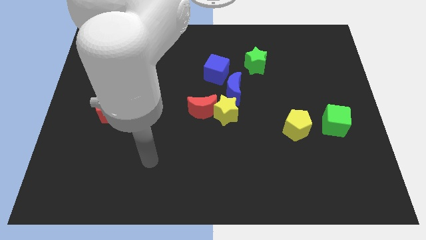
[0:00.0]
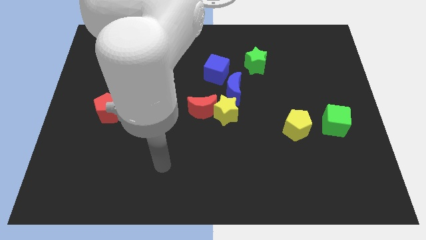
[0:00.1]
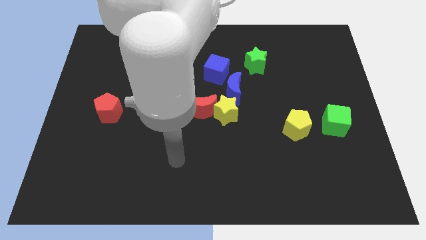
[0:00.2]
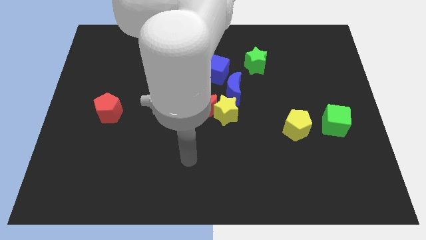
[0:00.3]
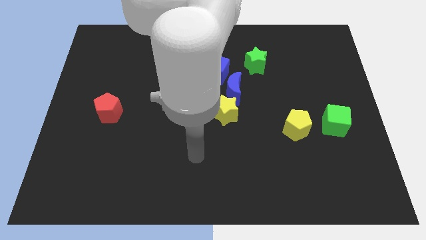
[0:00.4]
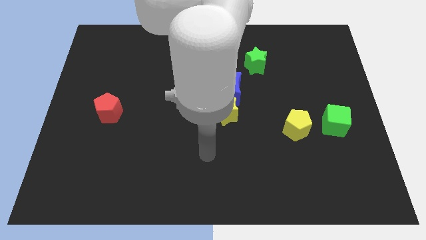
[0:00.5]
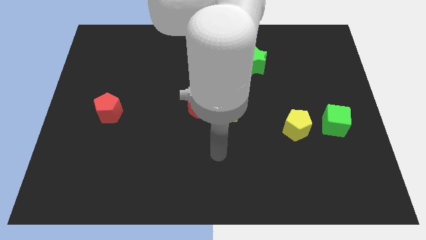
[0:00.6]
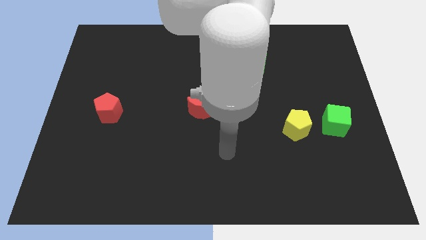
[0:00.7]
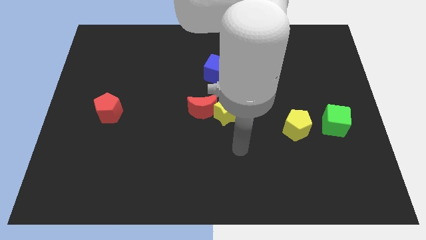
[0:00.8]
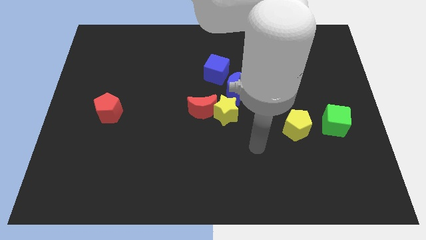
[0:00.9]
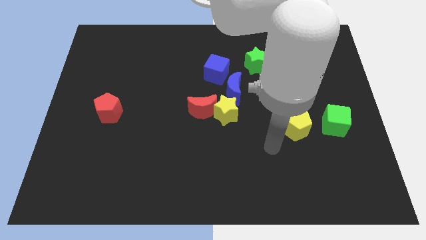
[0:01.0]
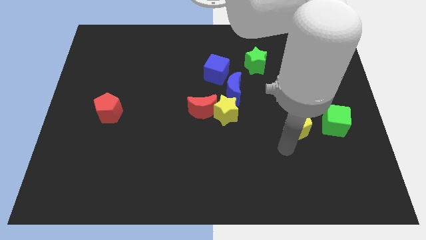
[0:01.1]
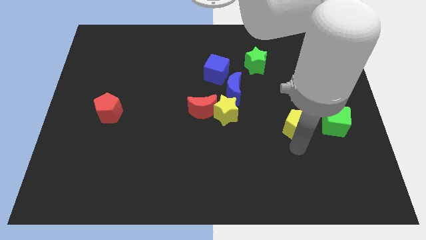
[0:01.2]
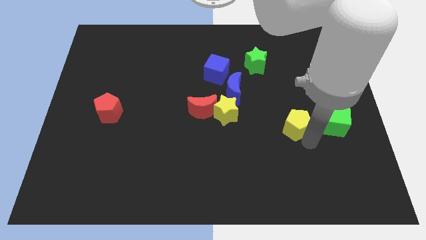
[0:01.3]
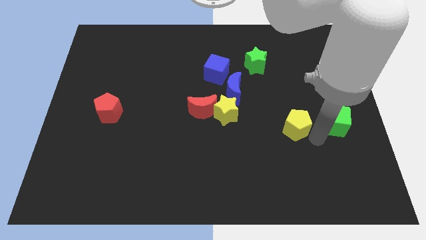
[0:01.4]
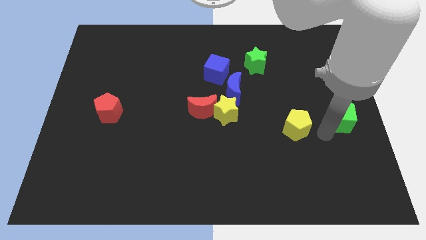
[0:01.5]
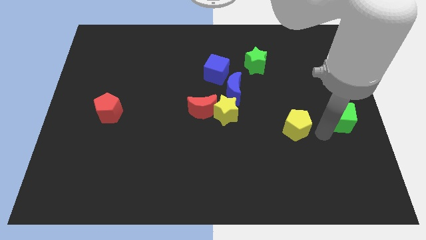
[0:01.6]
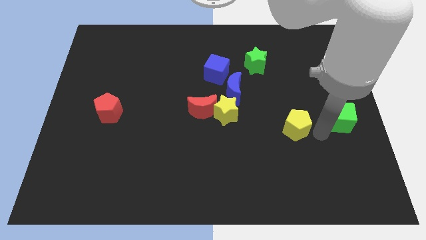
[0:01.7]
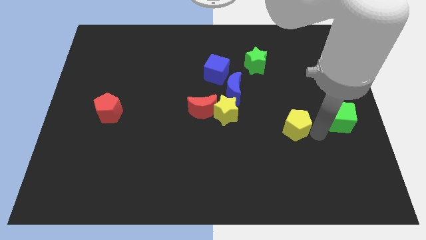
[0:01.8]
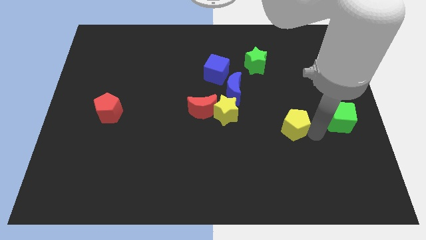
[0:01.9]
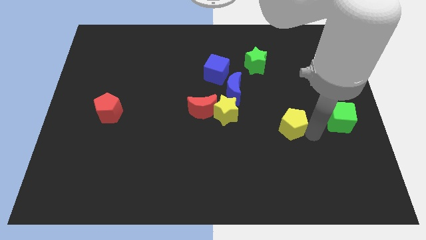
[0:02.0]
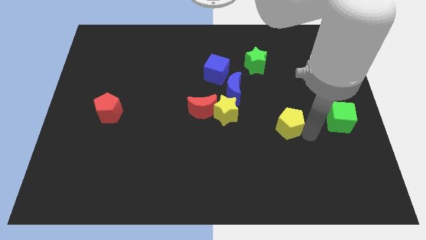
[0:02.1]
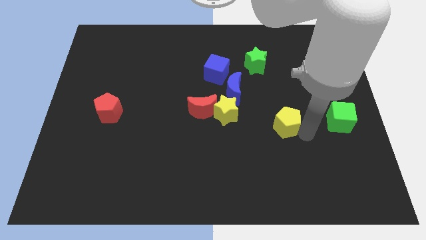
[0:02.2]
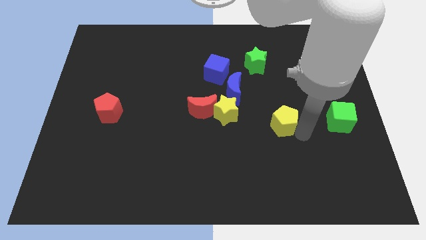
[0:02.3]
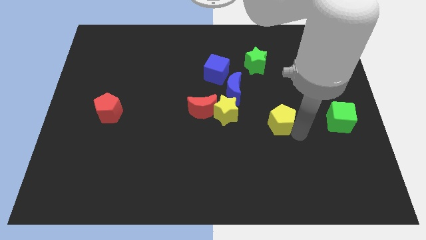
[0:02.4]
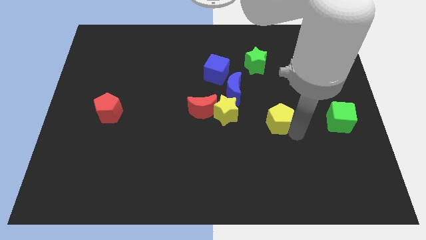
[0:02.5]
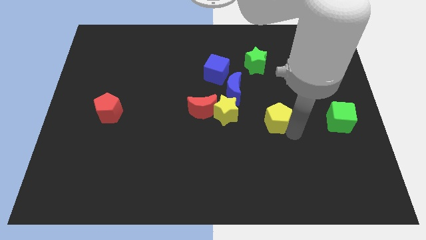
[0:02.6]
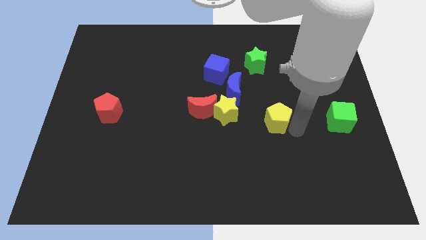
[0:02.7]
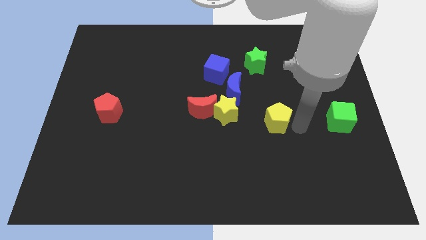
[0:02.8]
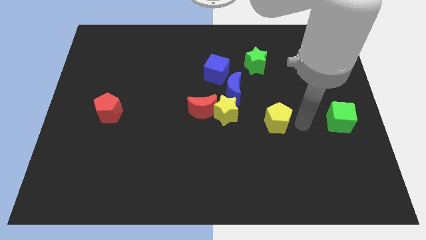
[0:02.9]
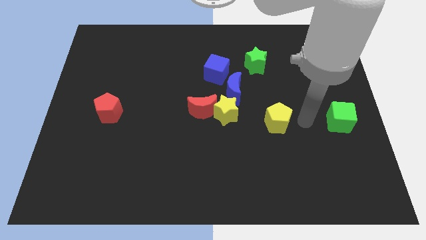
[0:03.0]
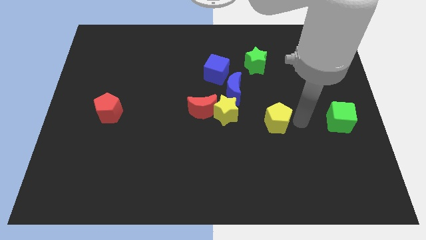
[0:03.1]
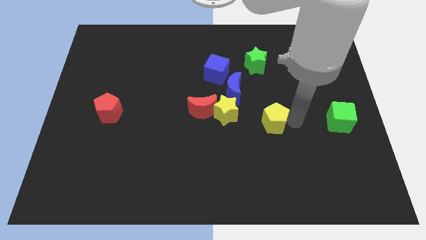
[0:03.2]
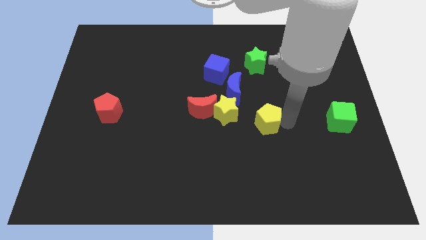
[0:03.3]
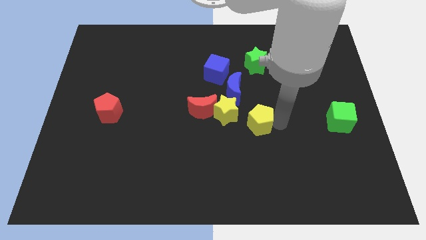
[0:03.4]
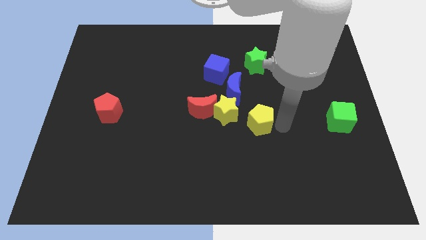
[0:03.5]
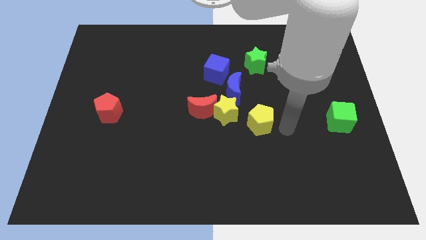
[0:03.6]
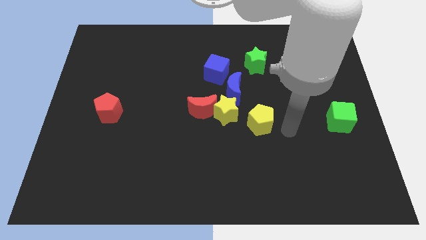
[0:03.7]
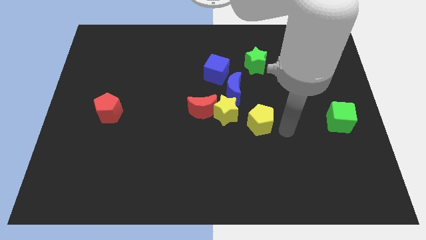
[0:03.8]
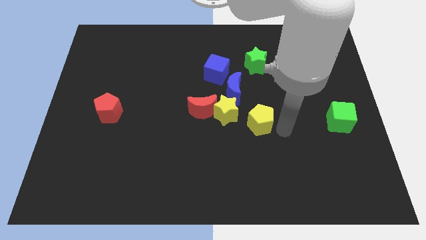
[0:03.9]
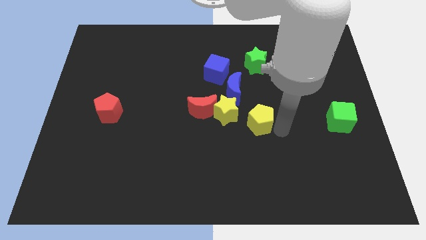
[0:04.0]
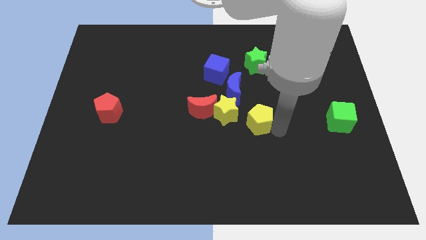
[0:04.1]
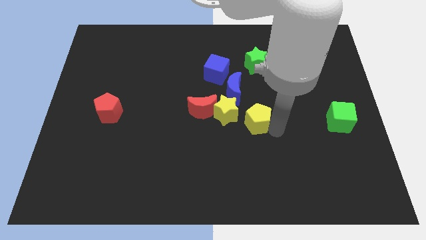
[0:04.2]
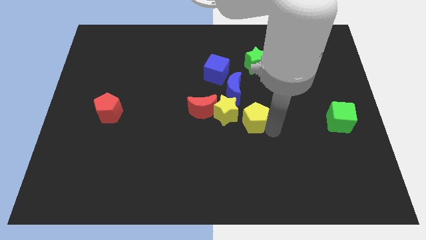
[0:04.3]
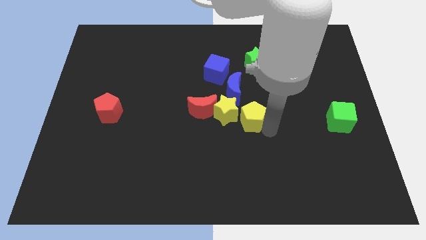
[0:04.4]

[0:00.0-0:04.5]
slide the yellow pentagon to the yellow star

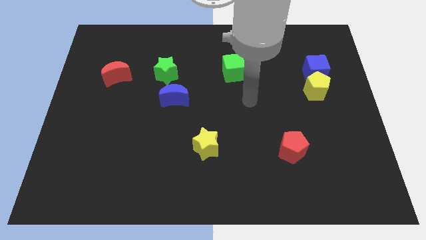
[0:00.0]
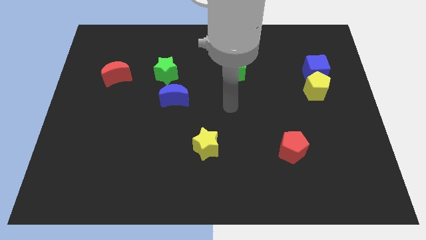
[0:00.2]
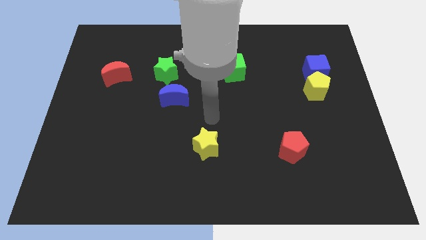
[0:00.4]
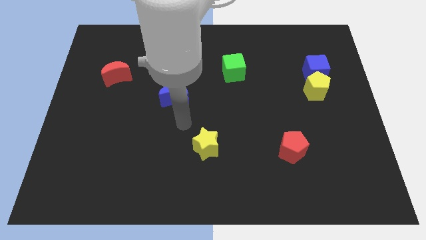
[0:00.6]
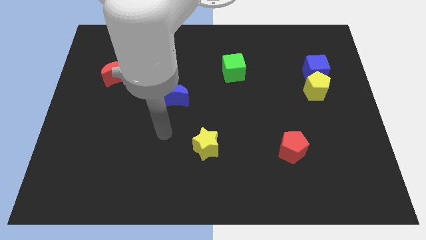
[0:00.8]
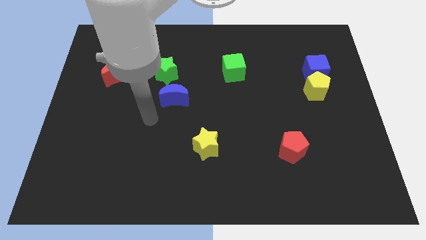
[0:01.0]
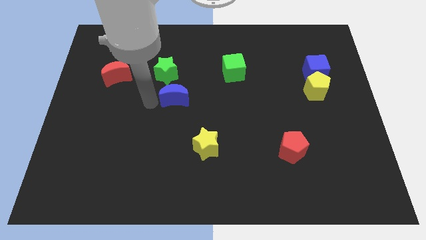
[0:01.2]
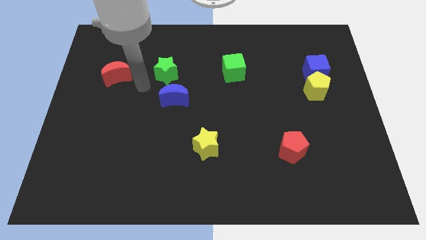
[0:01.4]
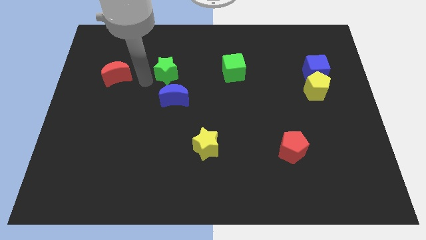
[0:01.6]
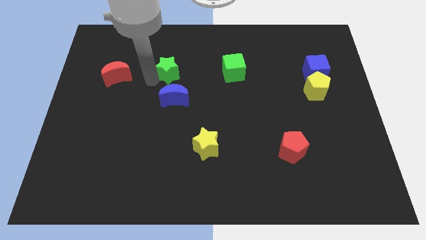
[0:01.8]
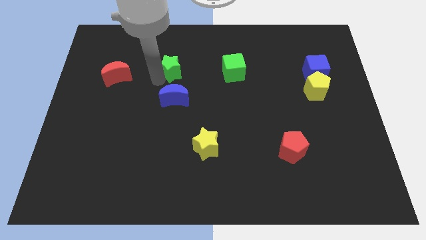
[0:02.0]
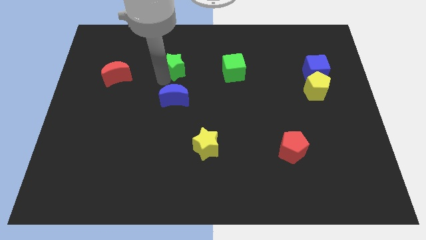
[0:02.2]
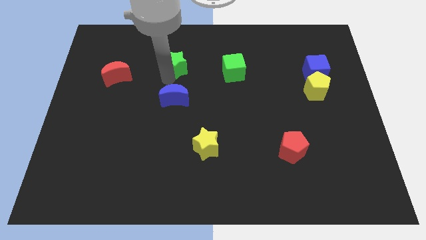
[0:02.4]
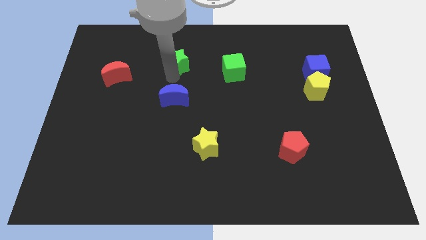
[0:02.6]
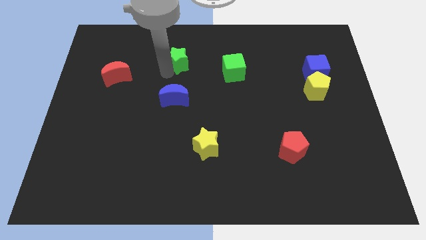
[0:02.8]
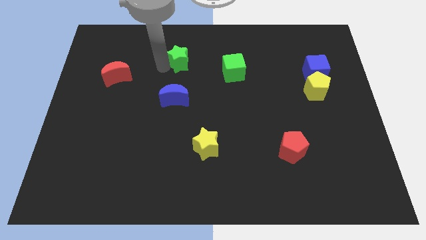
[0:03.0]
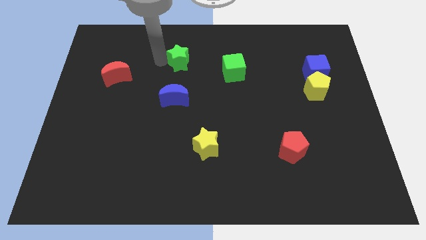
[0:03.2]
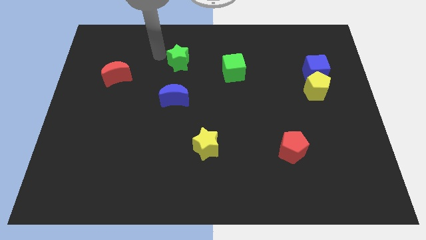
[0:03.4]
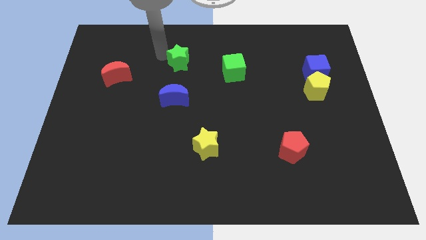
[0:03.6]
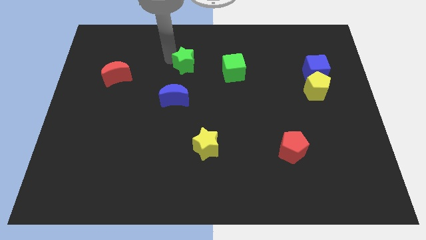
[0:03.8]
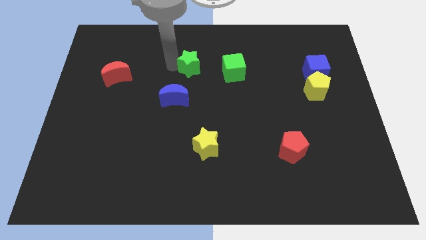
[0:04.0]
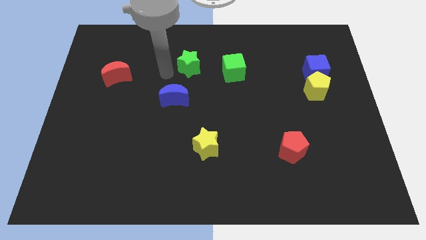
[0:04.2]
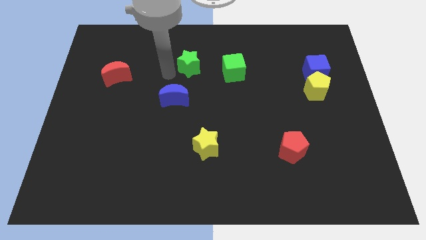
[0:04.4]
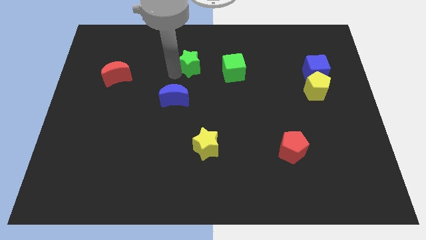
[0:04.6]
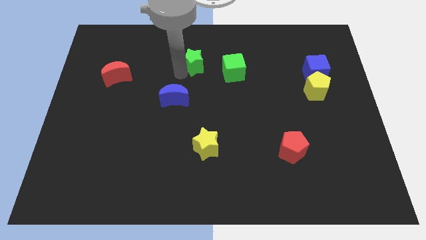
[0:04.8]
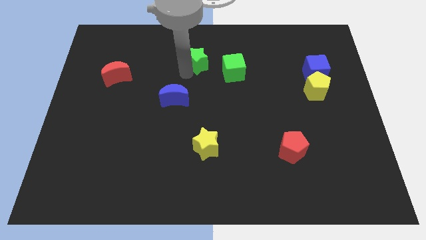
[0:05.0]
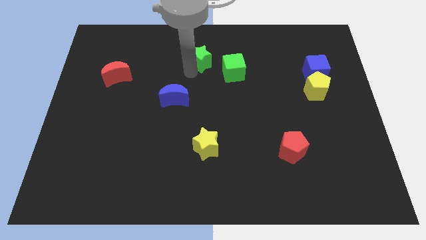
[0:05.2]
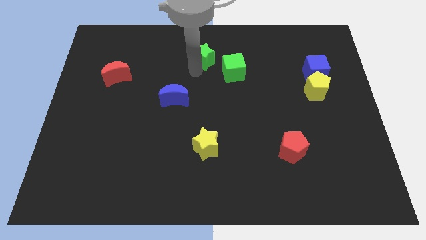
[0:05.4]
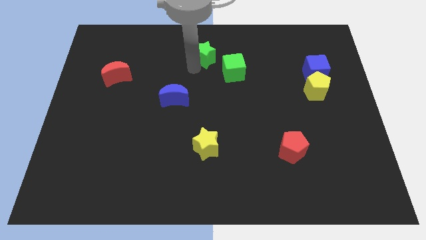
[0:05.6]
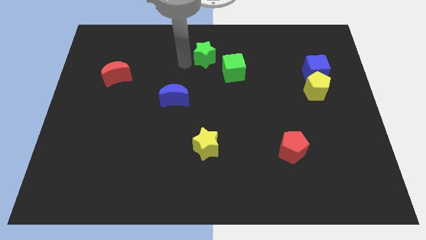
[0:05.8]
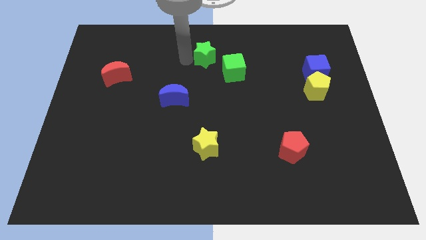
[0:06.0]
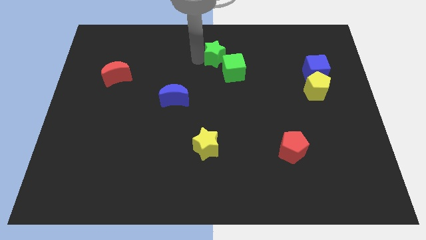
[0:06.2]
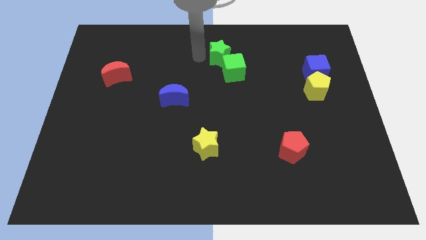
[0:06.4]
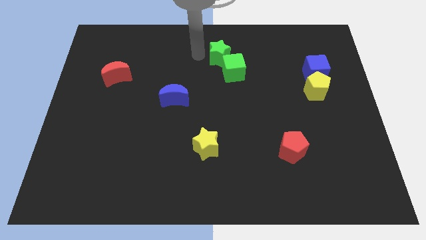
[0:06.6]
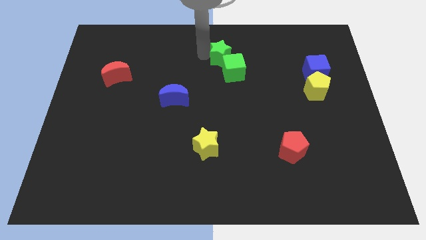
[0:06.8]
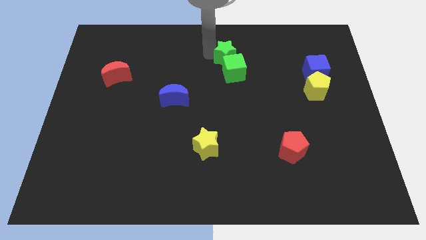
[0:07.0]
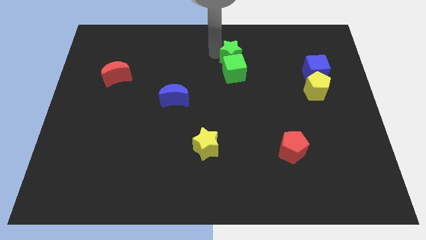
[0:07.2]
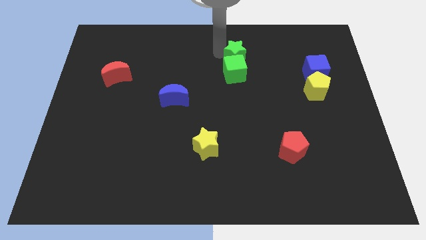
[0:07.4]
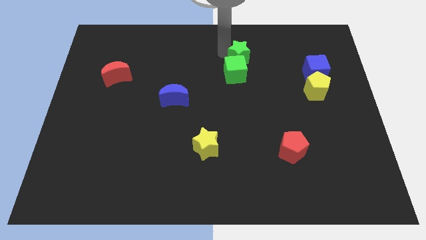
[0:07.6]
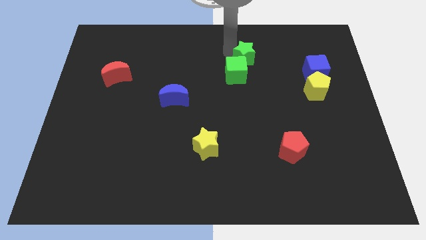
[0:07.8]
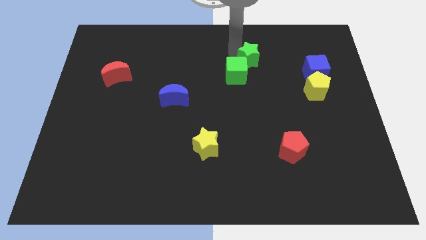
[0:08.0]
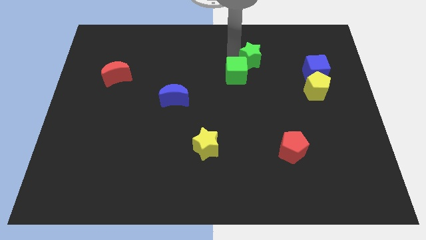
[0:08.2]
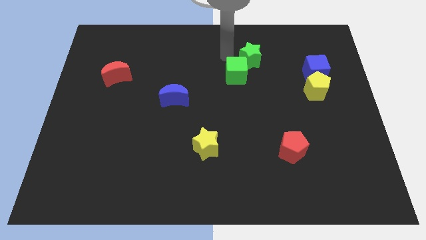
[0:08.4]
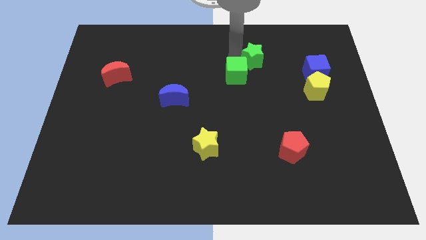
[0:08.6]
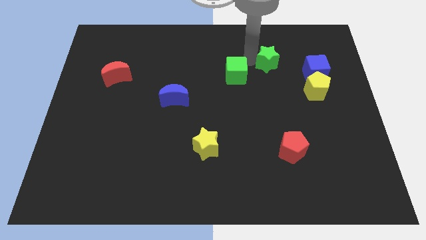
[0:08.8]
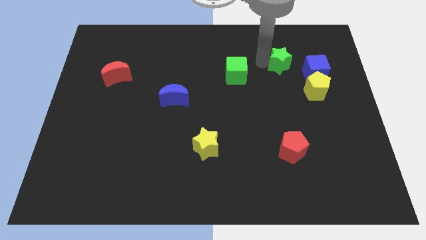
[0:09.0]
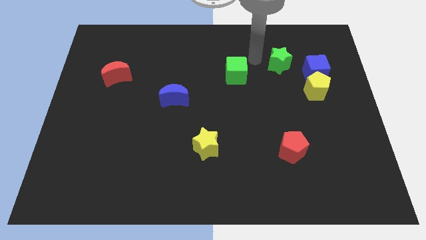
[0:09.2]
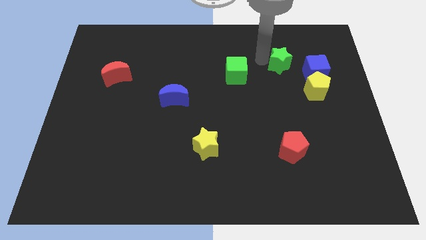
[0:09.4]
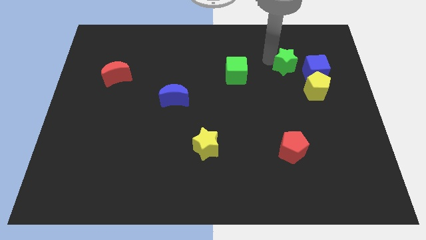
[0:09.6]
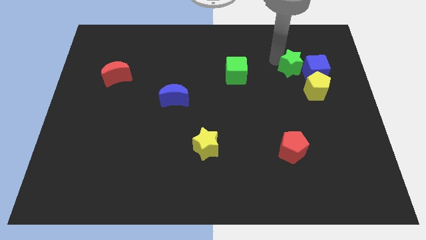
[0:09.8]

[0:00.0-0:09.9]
push the green star towards the blue cube
